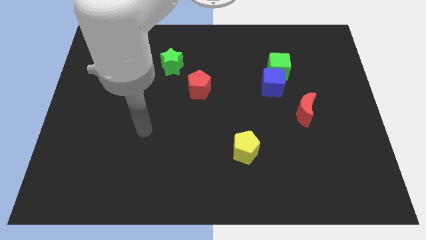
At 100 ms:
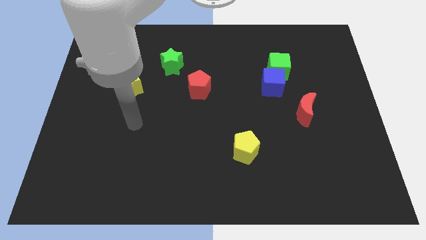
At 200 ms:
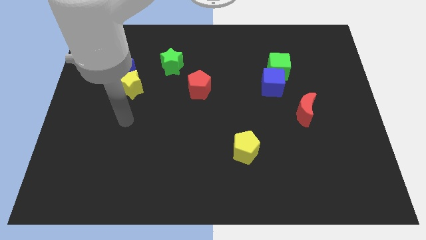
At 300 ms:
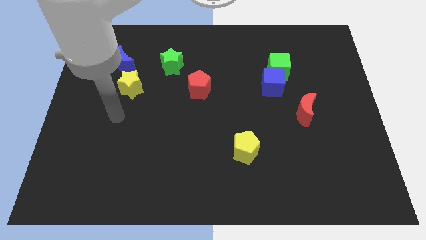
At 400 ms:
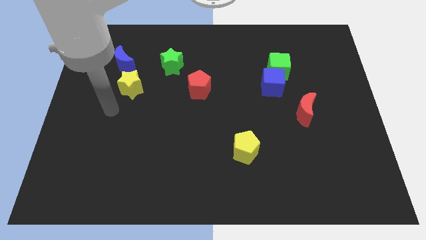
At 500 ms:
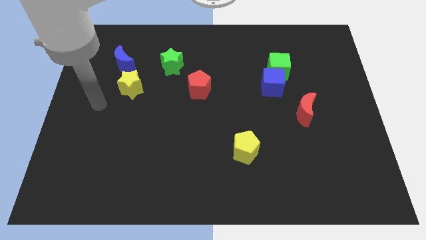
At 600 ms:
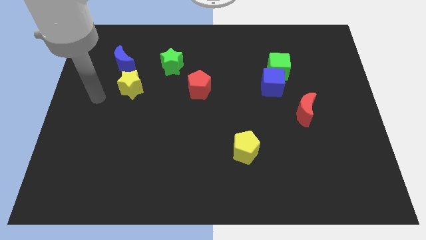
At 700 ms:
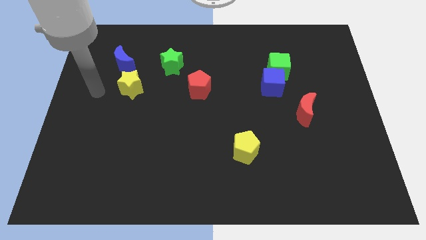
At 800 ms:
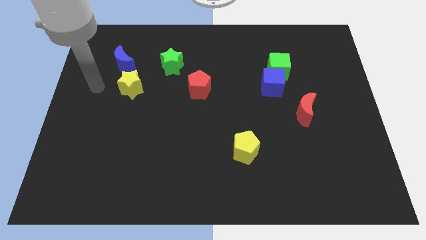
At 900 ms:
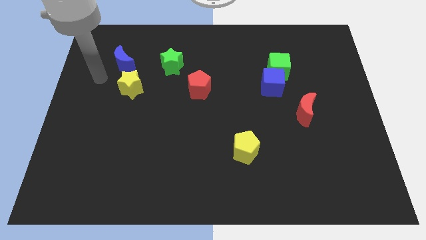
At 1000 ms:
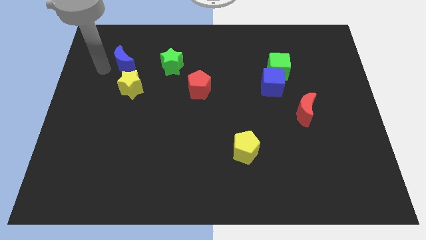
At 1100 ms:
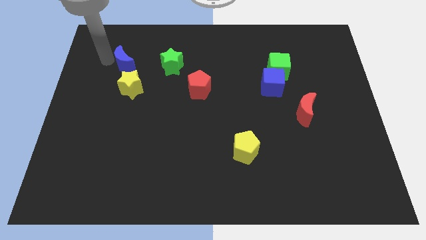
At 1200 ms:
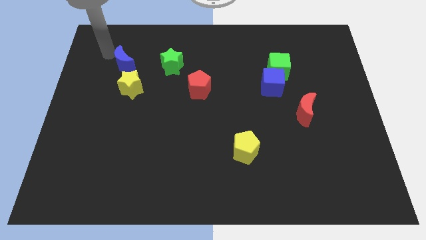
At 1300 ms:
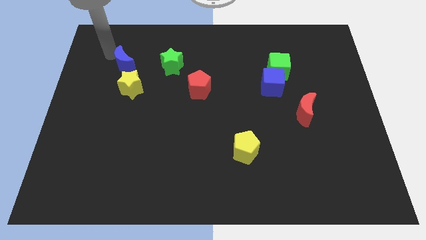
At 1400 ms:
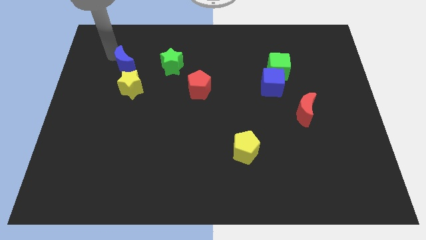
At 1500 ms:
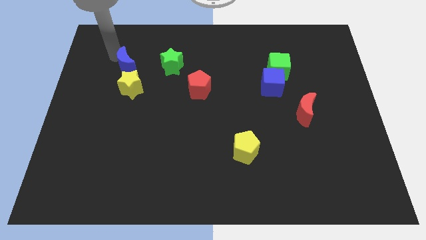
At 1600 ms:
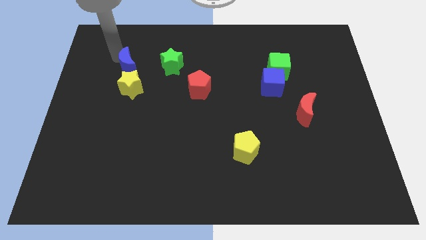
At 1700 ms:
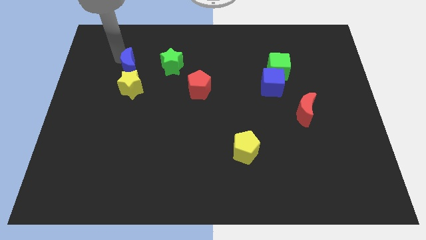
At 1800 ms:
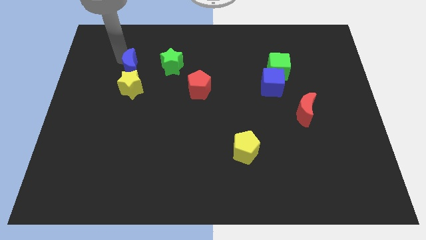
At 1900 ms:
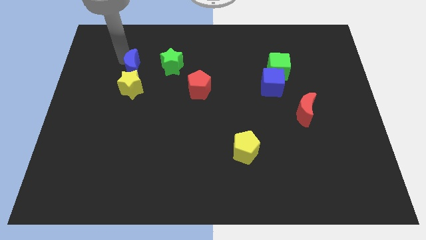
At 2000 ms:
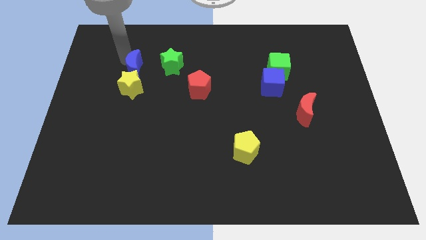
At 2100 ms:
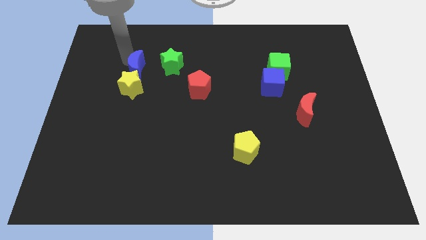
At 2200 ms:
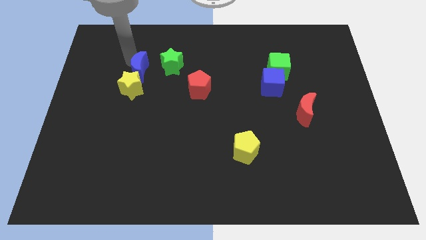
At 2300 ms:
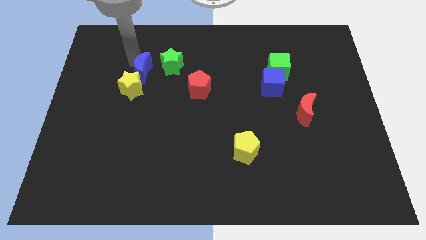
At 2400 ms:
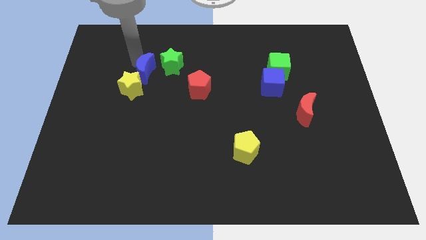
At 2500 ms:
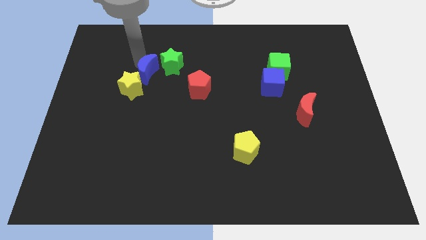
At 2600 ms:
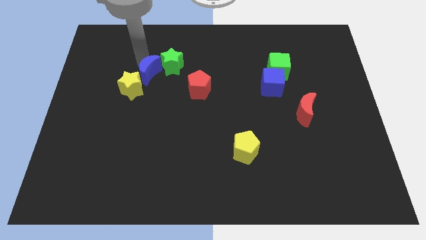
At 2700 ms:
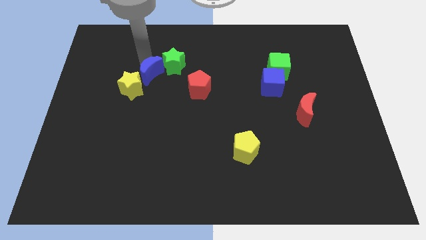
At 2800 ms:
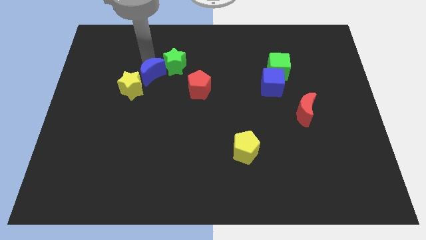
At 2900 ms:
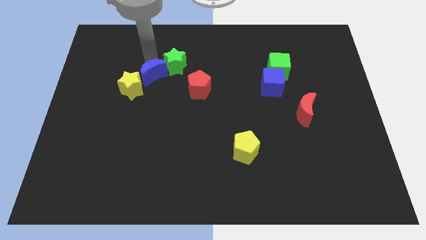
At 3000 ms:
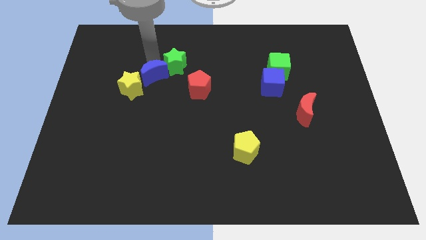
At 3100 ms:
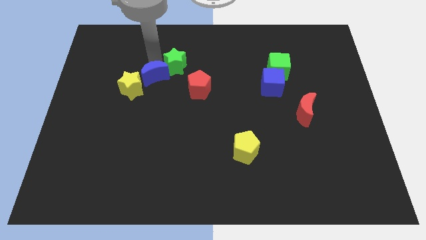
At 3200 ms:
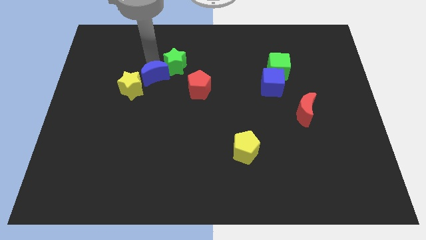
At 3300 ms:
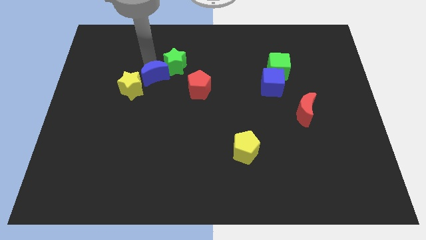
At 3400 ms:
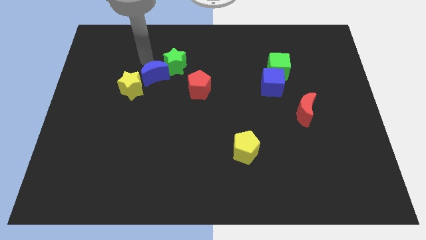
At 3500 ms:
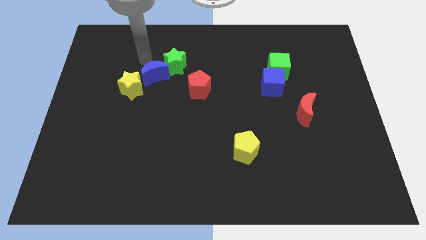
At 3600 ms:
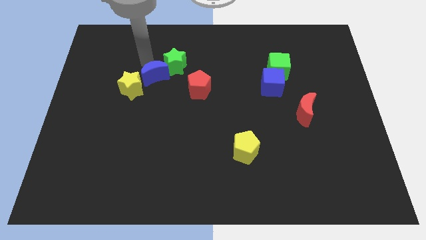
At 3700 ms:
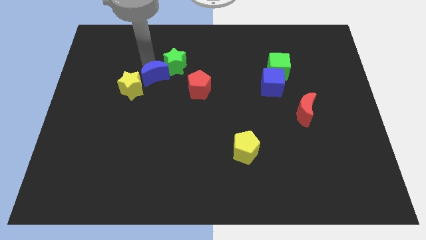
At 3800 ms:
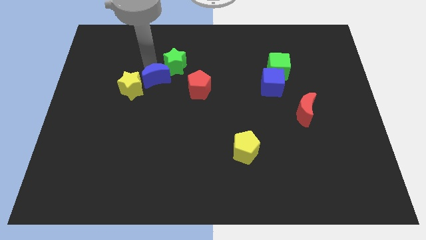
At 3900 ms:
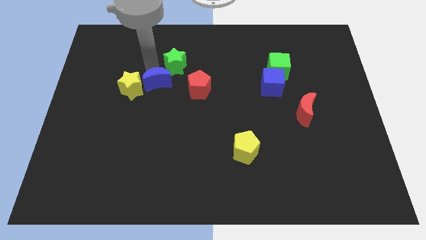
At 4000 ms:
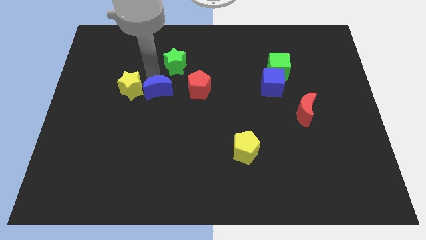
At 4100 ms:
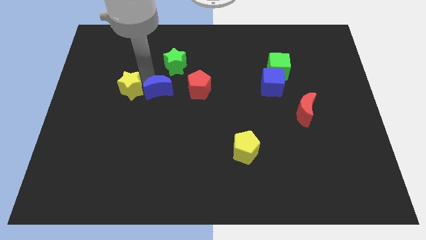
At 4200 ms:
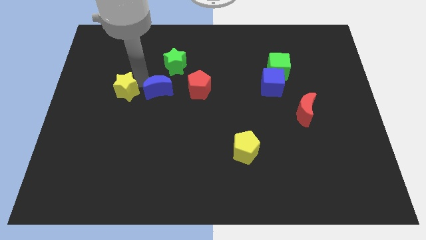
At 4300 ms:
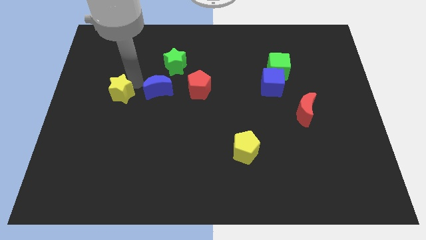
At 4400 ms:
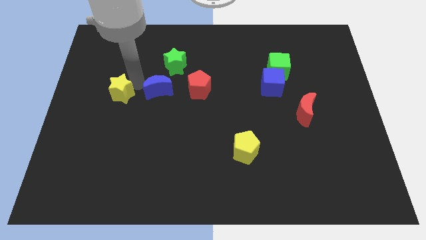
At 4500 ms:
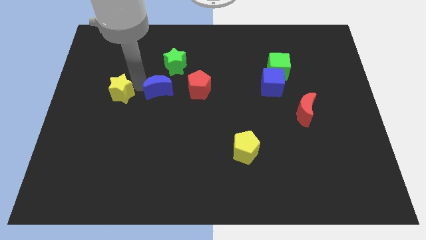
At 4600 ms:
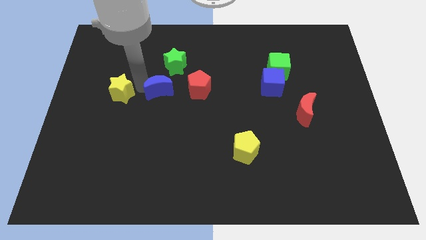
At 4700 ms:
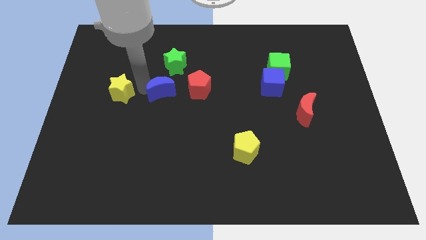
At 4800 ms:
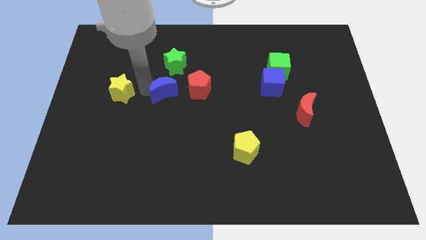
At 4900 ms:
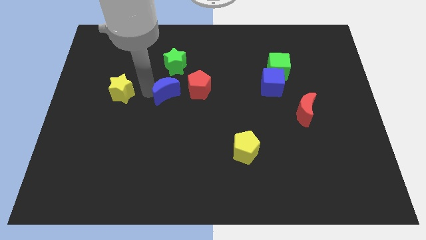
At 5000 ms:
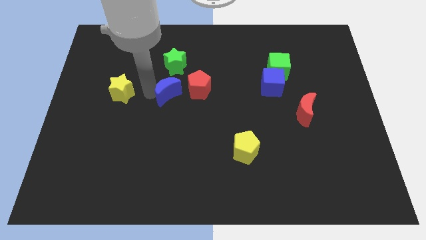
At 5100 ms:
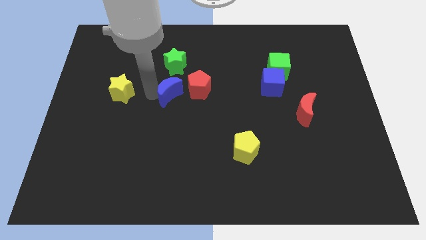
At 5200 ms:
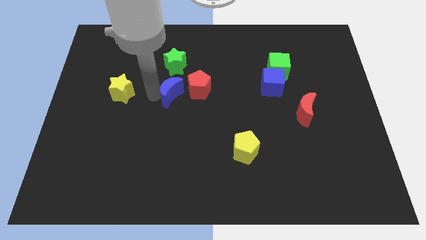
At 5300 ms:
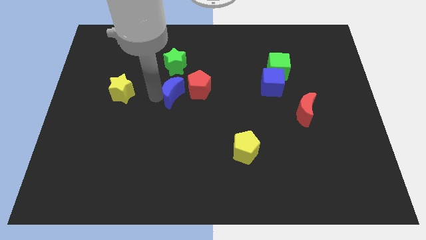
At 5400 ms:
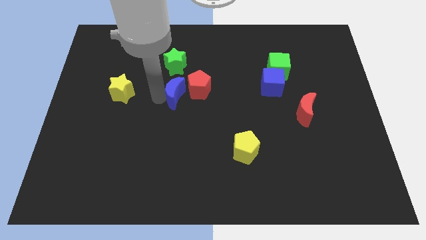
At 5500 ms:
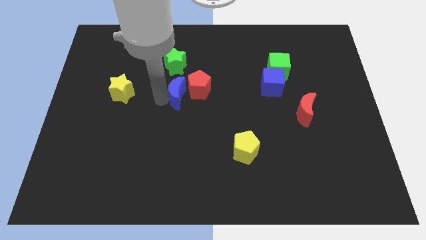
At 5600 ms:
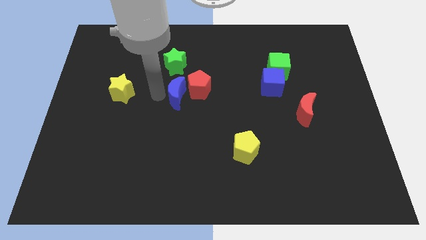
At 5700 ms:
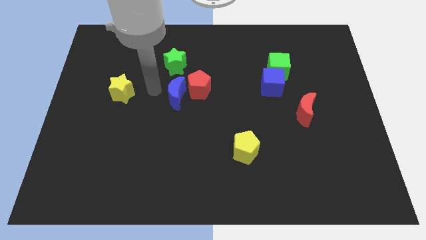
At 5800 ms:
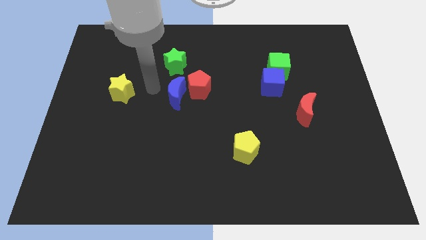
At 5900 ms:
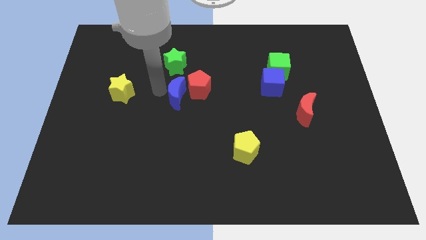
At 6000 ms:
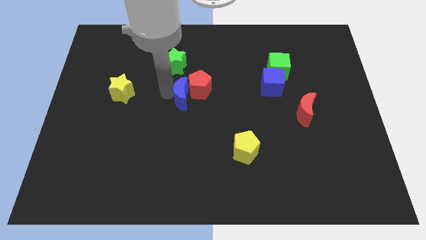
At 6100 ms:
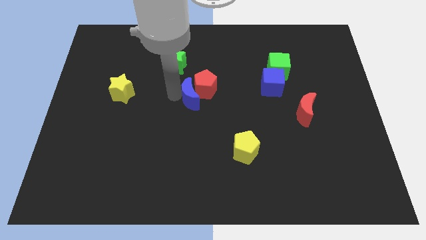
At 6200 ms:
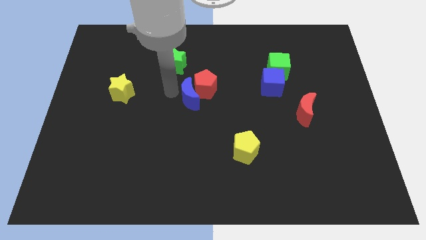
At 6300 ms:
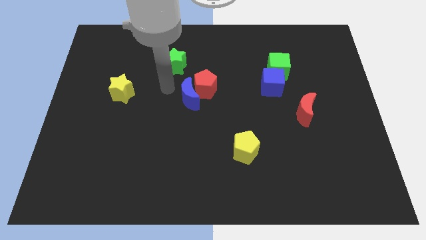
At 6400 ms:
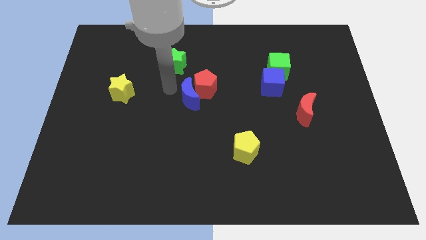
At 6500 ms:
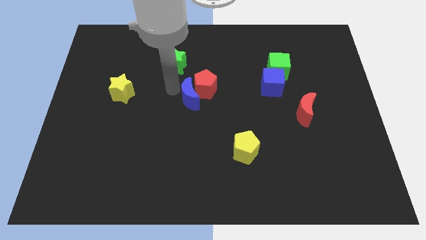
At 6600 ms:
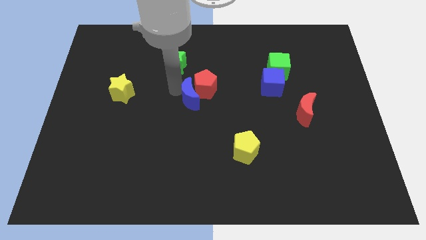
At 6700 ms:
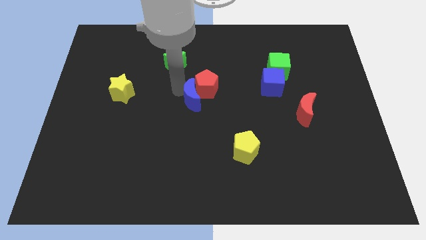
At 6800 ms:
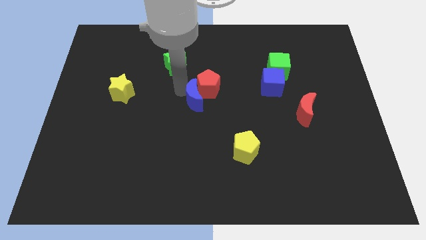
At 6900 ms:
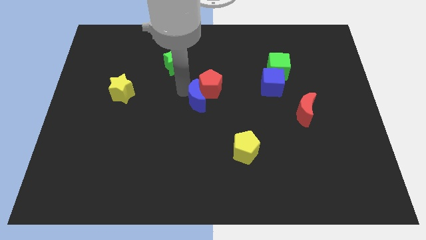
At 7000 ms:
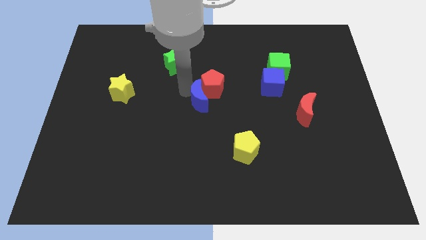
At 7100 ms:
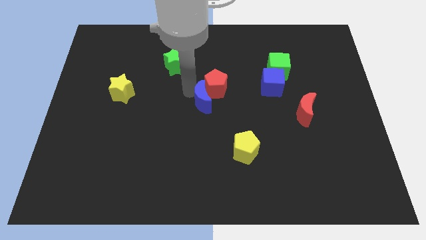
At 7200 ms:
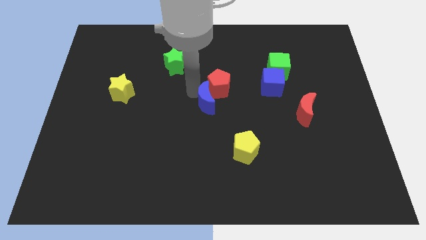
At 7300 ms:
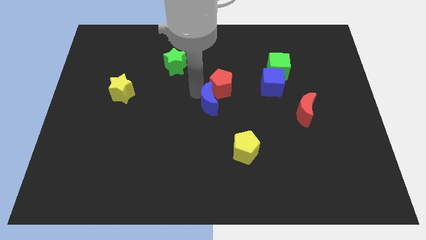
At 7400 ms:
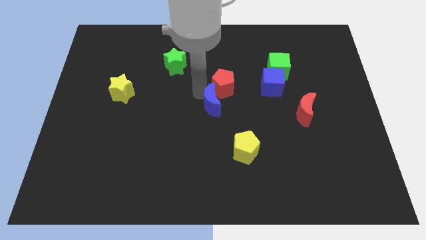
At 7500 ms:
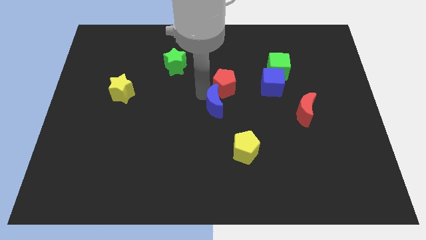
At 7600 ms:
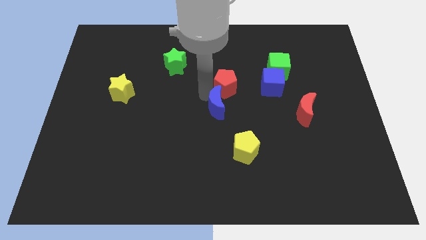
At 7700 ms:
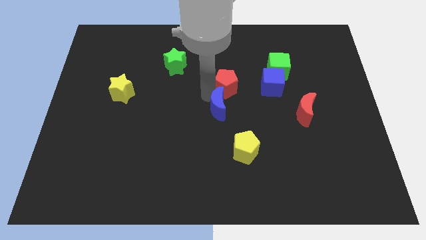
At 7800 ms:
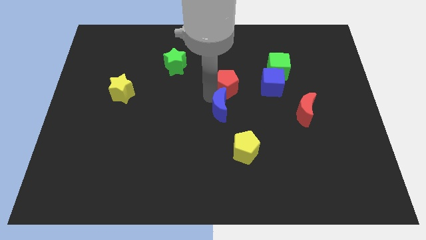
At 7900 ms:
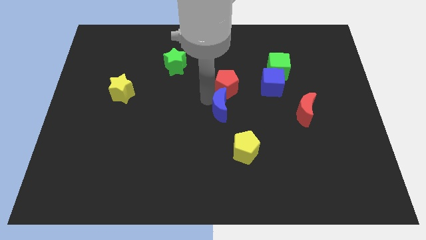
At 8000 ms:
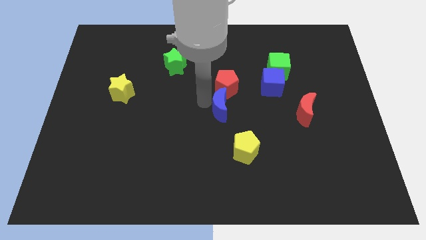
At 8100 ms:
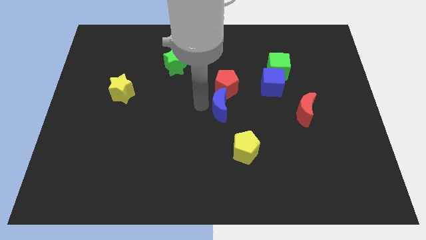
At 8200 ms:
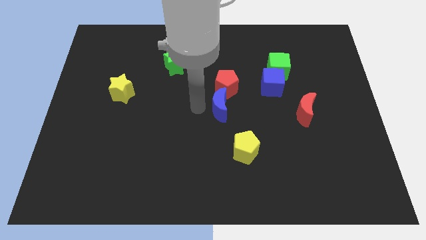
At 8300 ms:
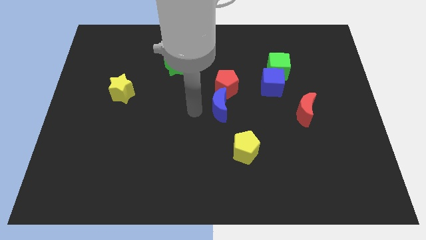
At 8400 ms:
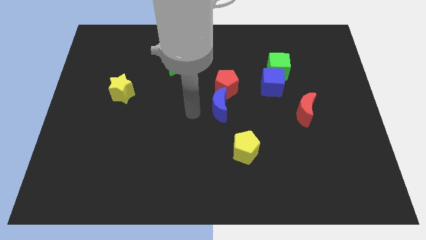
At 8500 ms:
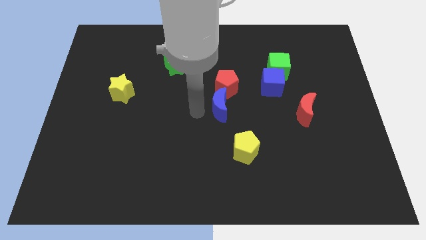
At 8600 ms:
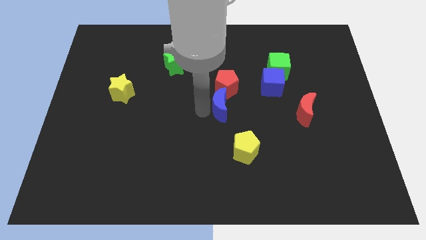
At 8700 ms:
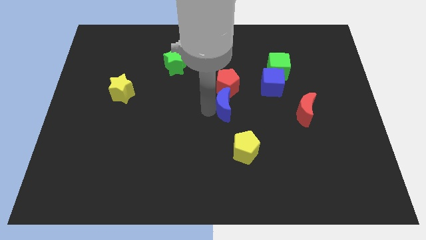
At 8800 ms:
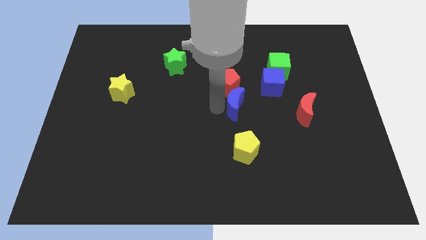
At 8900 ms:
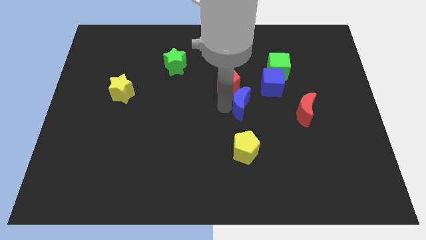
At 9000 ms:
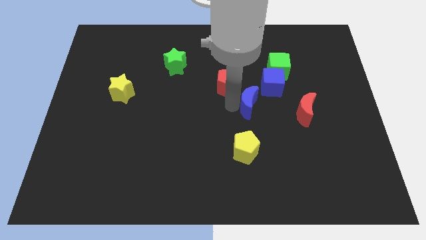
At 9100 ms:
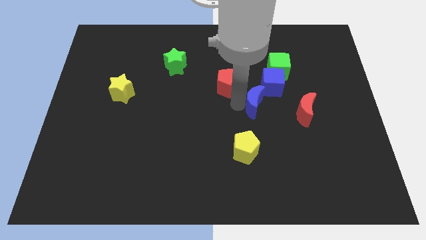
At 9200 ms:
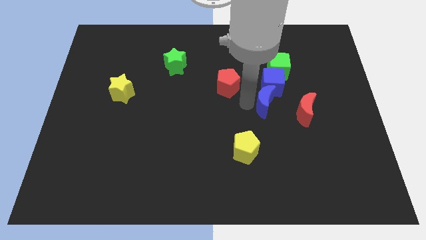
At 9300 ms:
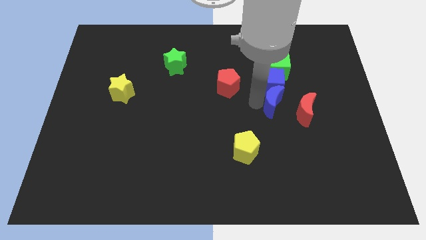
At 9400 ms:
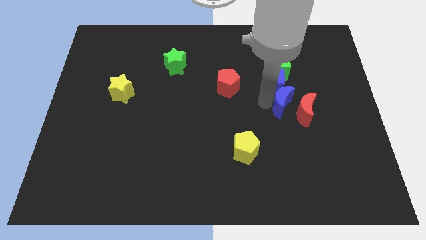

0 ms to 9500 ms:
put the blue moon to the red moon
